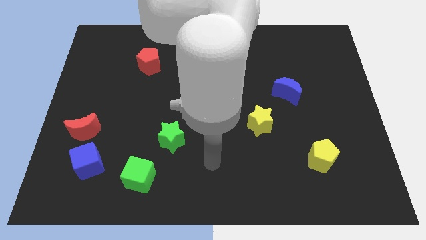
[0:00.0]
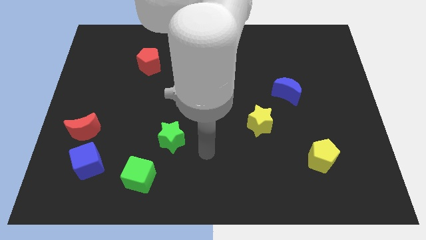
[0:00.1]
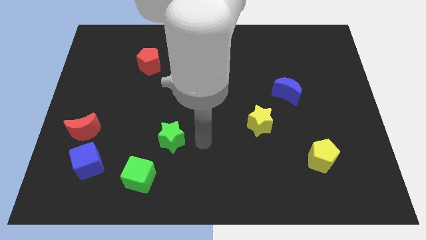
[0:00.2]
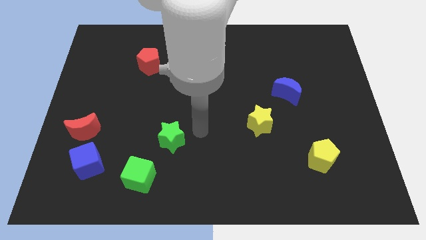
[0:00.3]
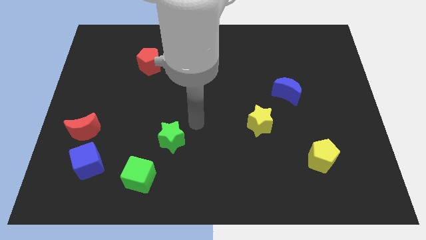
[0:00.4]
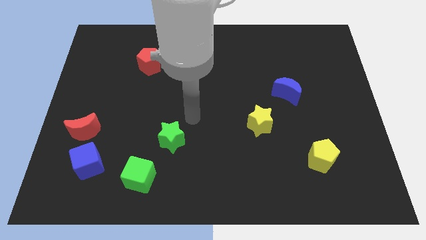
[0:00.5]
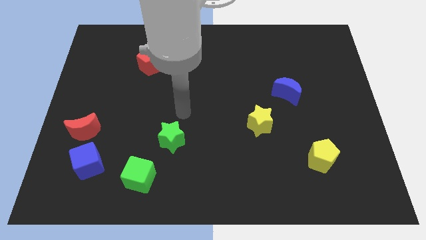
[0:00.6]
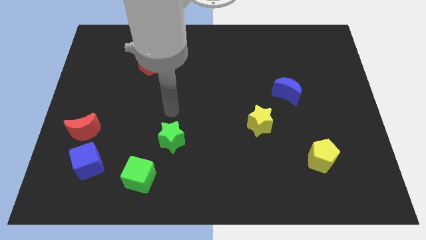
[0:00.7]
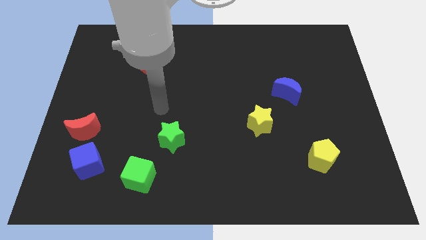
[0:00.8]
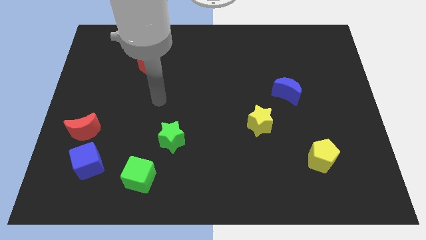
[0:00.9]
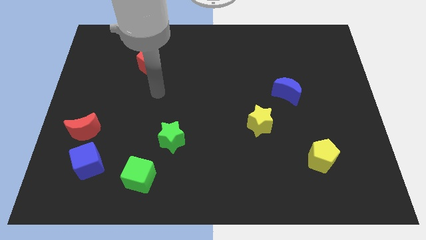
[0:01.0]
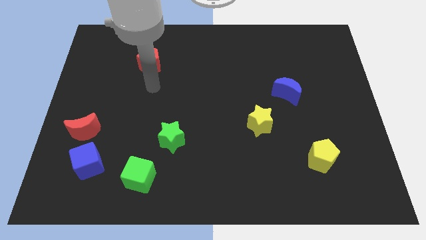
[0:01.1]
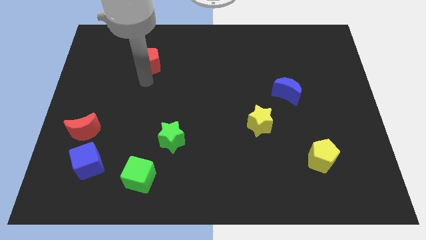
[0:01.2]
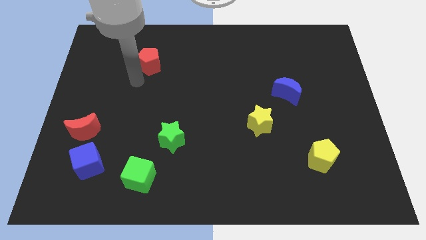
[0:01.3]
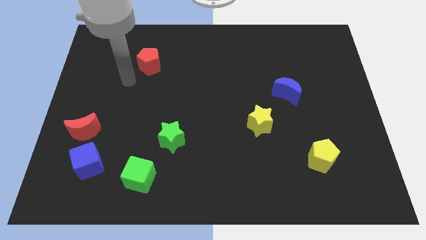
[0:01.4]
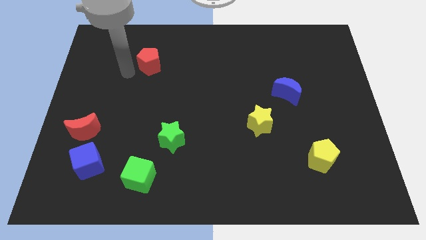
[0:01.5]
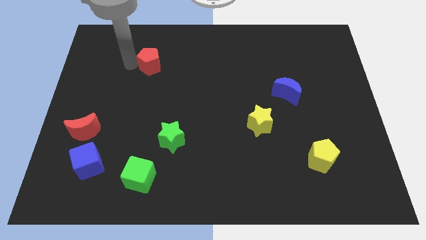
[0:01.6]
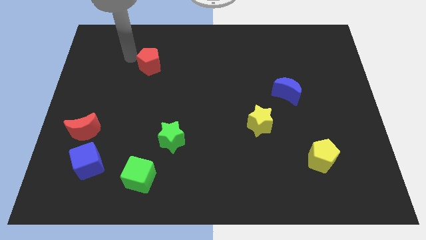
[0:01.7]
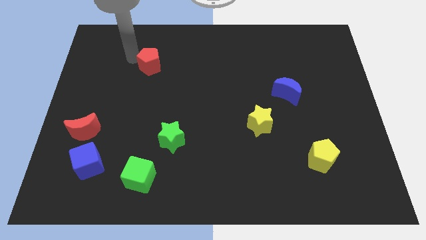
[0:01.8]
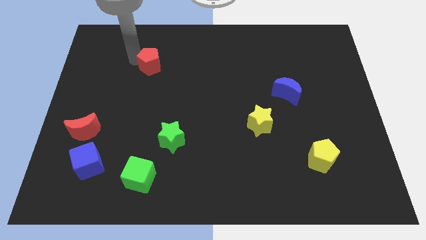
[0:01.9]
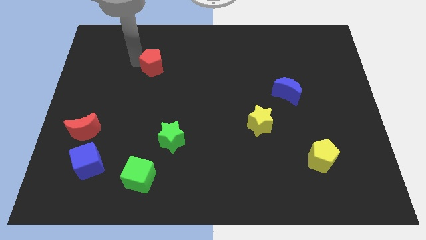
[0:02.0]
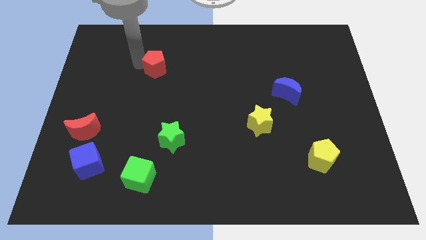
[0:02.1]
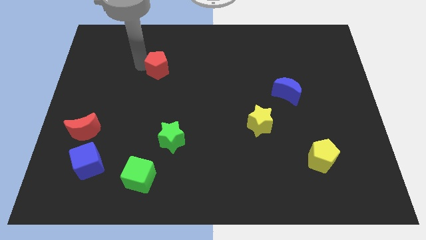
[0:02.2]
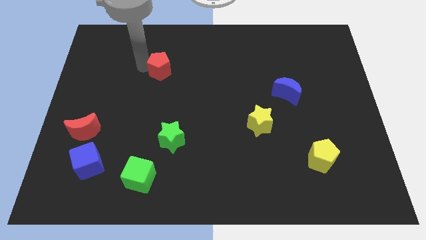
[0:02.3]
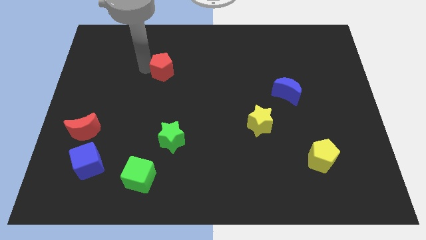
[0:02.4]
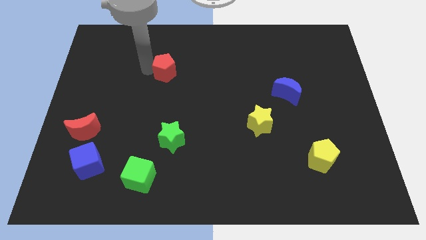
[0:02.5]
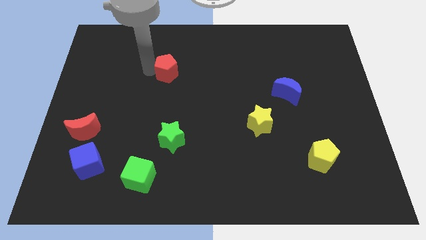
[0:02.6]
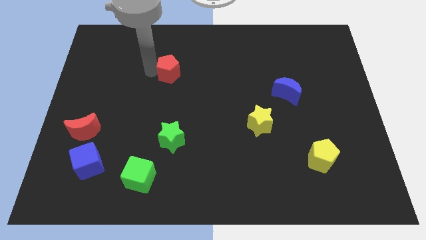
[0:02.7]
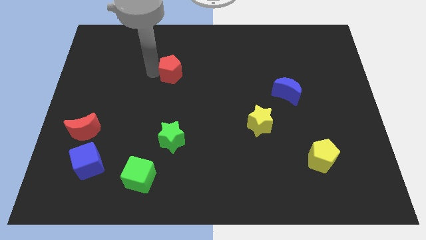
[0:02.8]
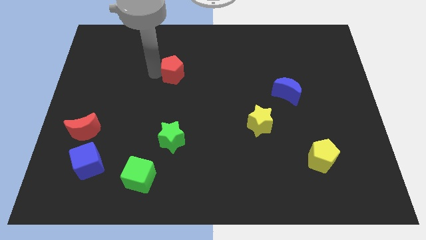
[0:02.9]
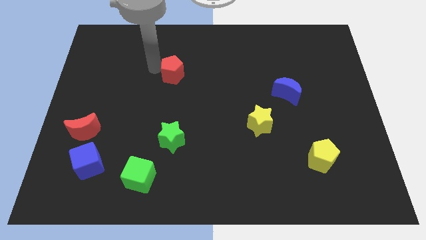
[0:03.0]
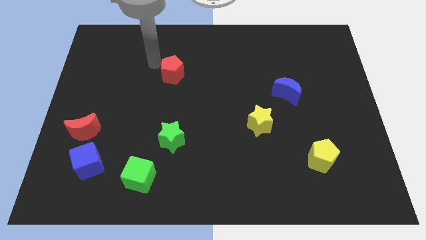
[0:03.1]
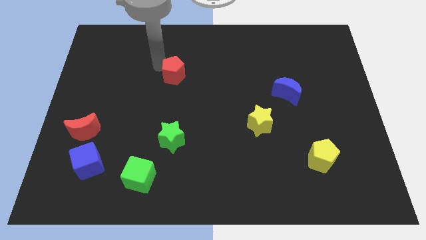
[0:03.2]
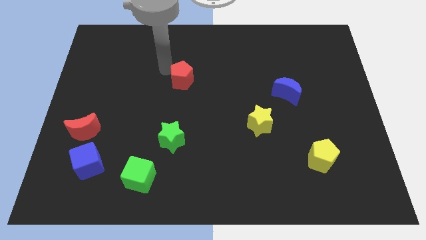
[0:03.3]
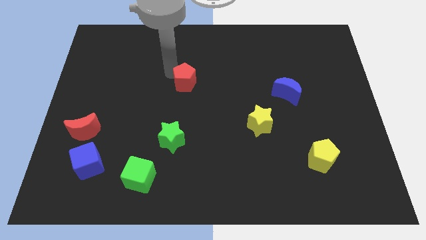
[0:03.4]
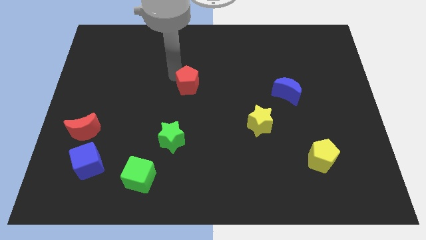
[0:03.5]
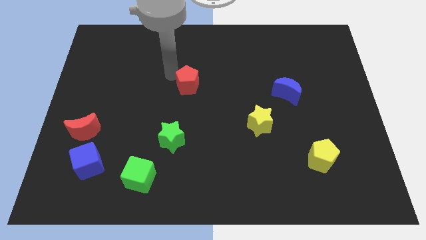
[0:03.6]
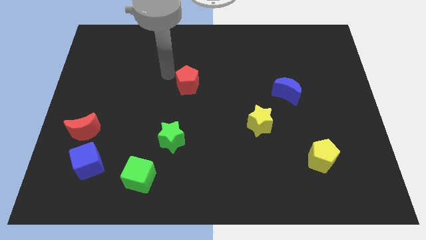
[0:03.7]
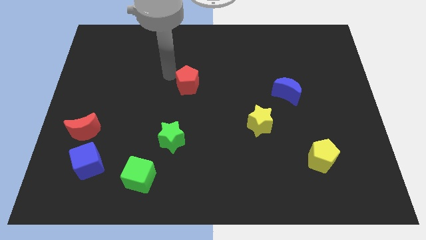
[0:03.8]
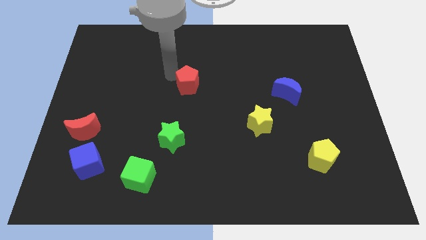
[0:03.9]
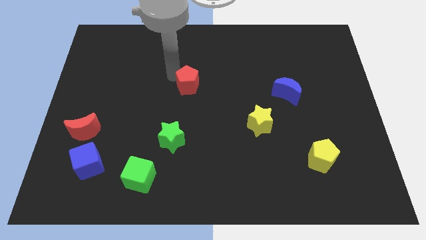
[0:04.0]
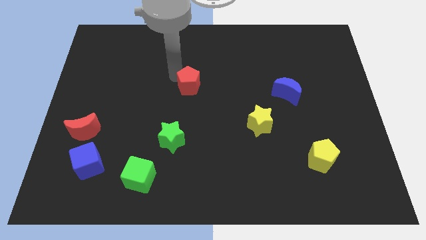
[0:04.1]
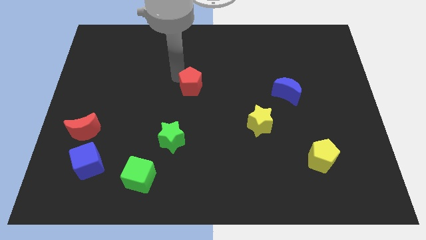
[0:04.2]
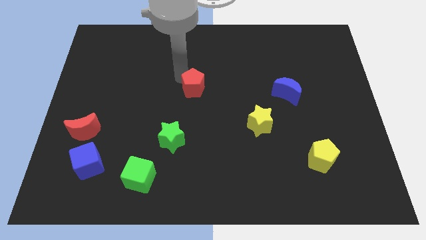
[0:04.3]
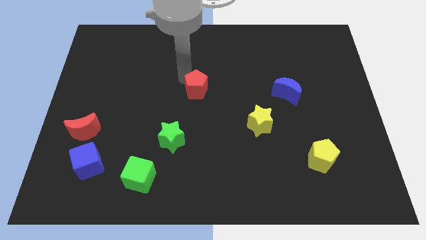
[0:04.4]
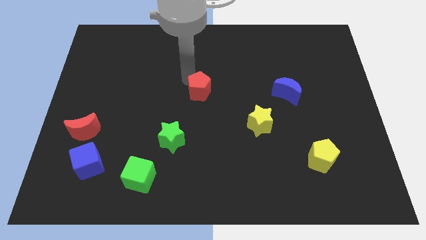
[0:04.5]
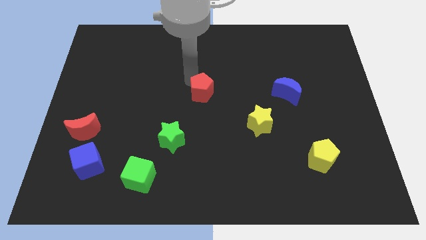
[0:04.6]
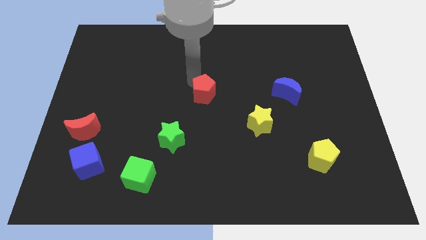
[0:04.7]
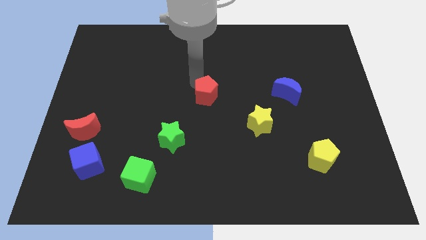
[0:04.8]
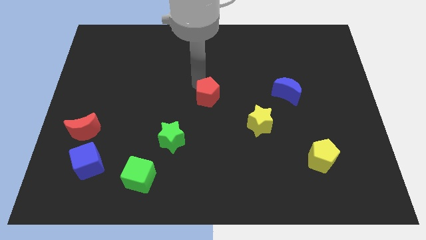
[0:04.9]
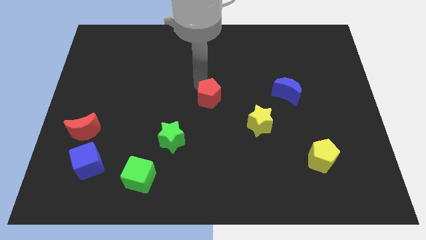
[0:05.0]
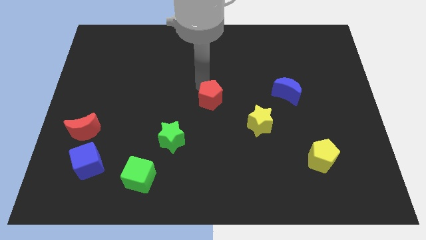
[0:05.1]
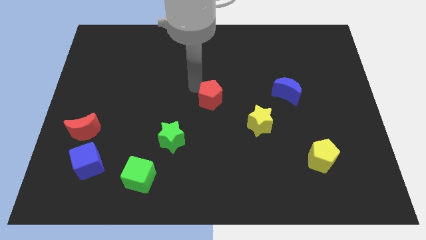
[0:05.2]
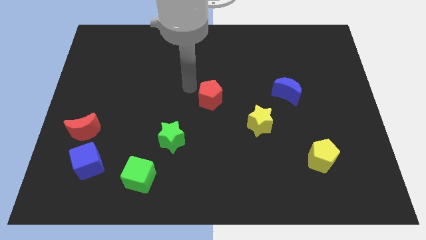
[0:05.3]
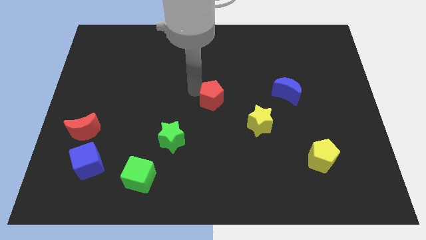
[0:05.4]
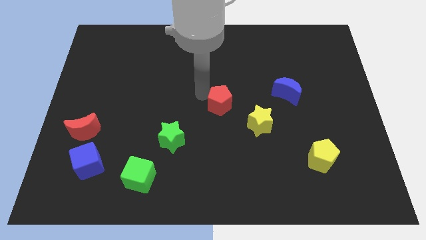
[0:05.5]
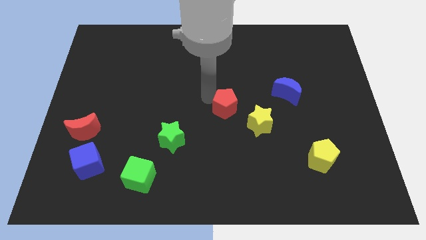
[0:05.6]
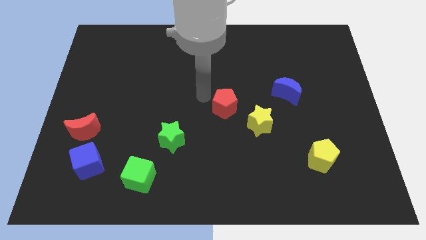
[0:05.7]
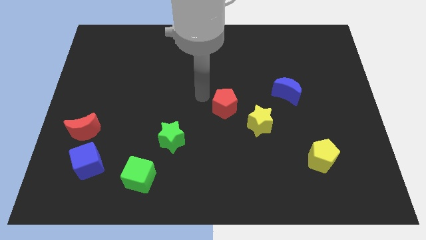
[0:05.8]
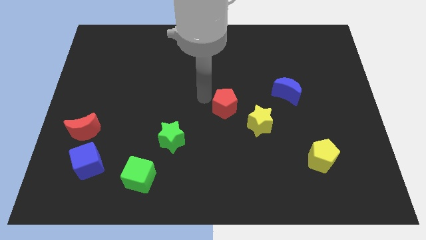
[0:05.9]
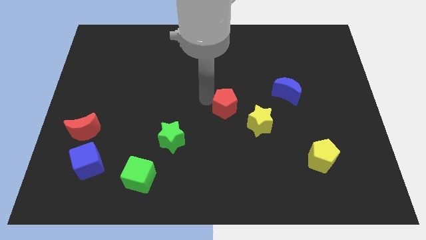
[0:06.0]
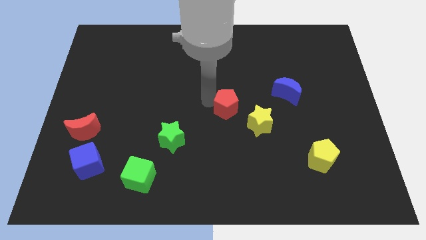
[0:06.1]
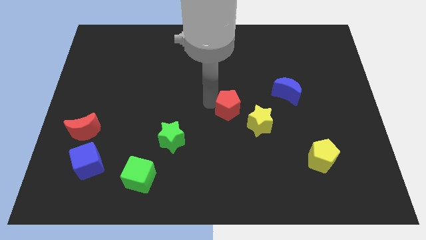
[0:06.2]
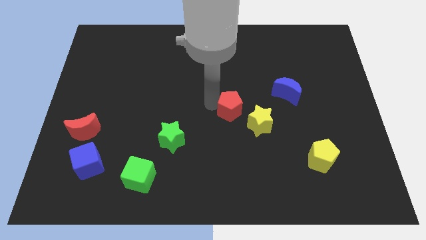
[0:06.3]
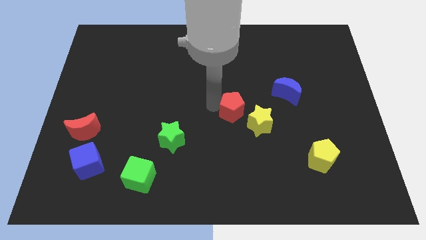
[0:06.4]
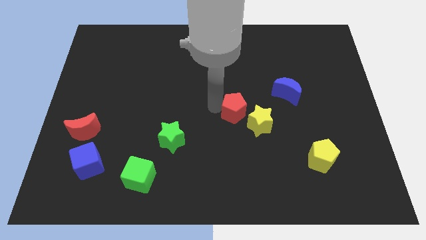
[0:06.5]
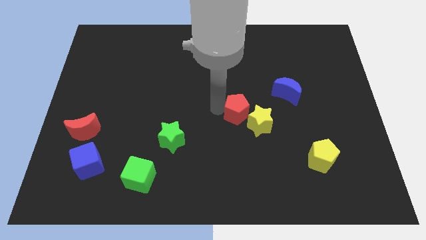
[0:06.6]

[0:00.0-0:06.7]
push the red pentagon close to the yellow star
